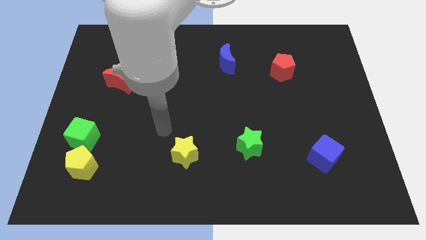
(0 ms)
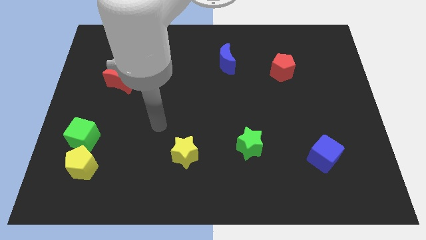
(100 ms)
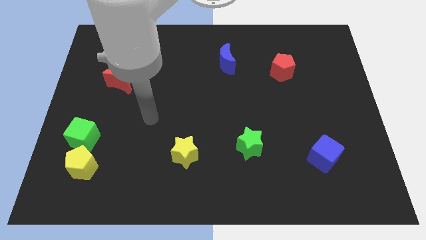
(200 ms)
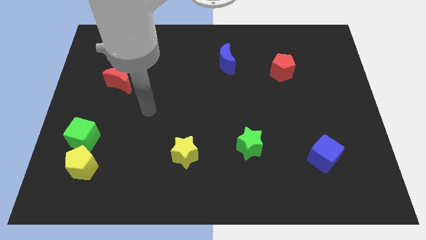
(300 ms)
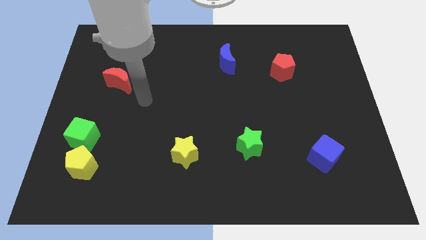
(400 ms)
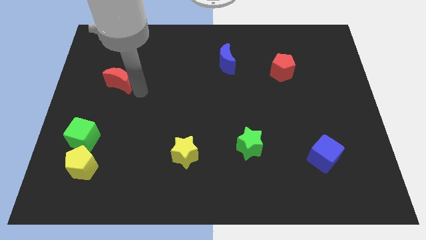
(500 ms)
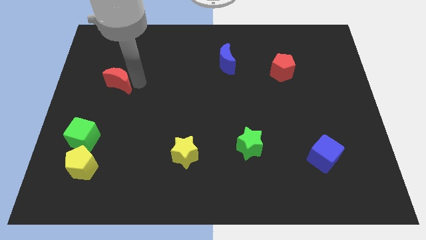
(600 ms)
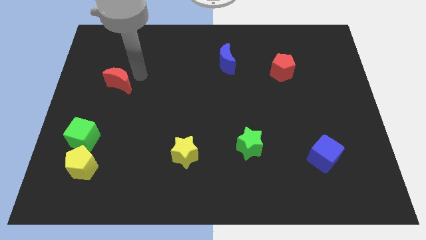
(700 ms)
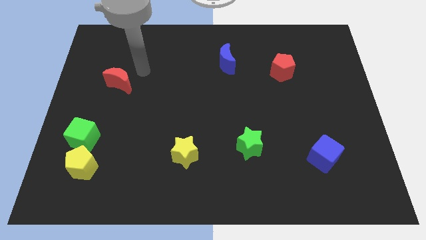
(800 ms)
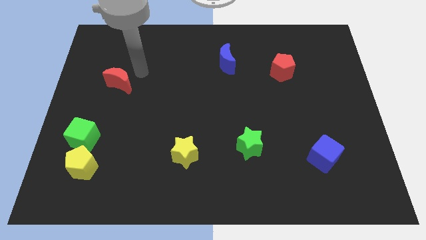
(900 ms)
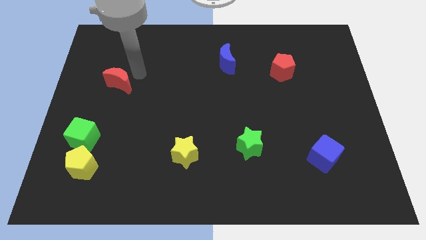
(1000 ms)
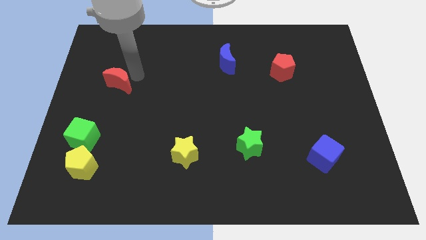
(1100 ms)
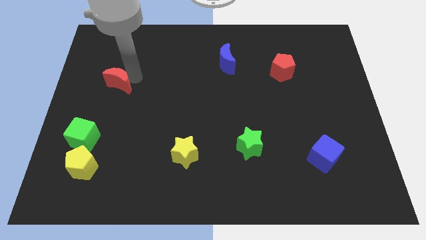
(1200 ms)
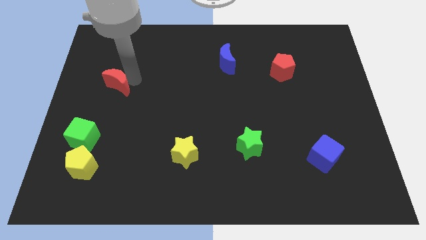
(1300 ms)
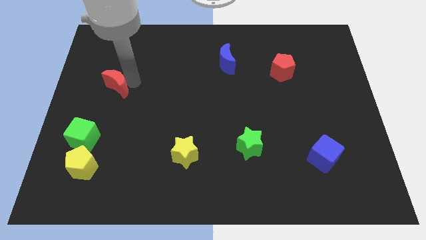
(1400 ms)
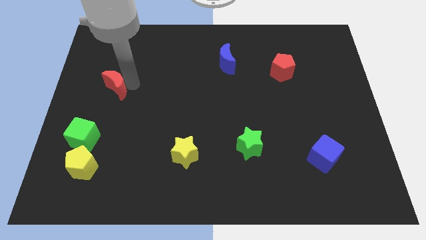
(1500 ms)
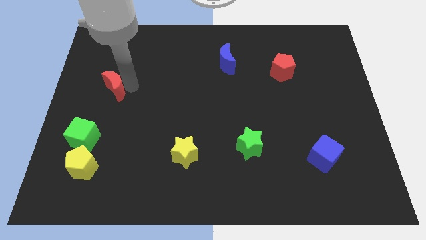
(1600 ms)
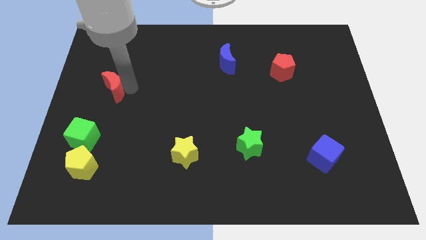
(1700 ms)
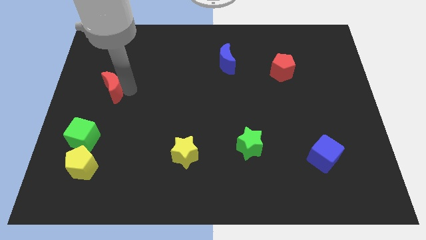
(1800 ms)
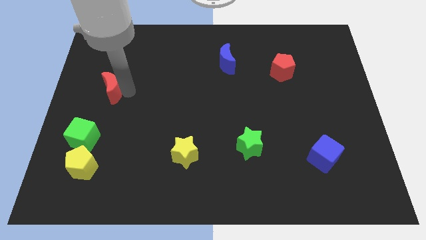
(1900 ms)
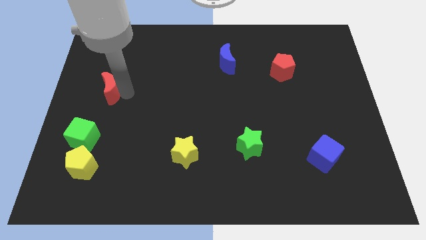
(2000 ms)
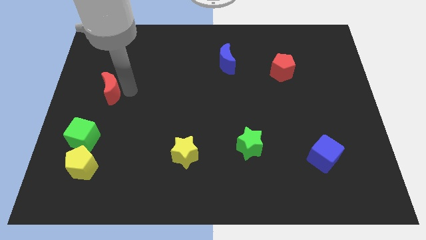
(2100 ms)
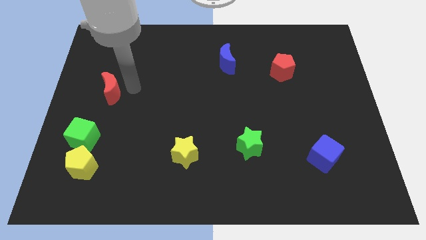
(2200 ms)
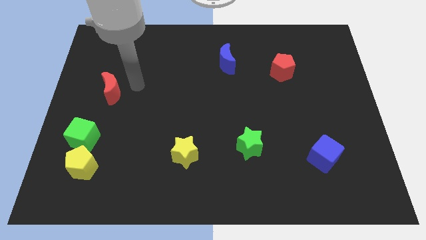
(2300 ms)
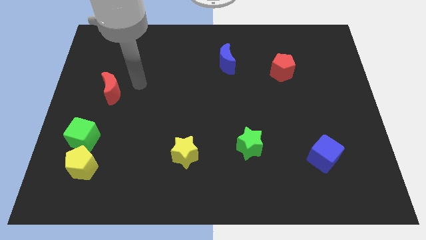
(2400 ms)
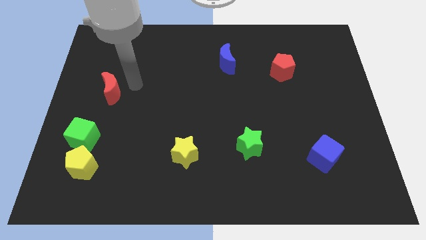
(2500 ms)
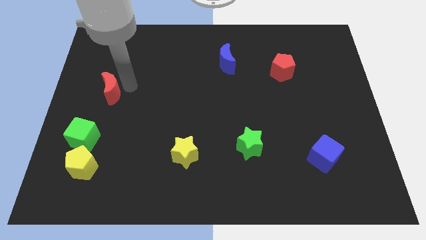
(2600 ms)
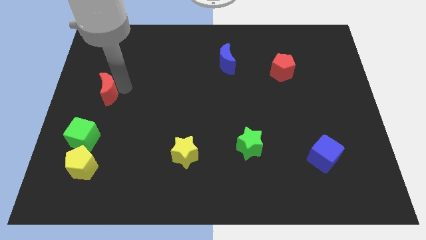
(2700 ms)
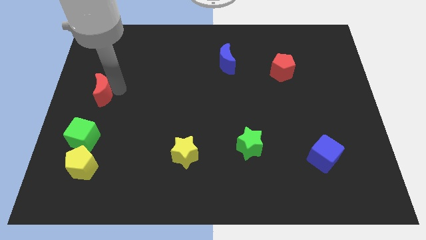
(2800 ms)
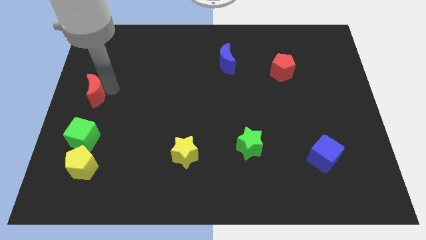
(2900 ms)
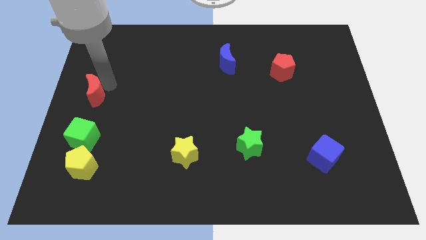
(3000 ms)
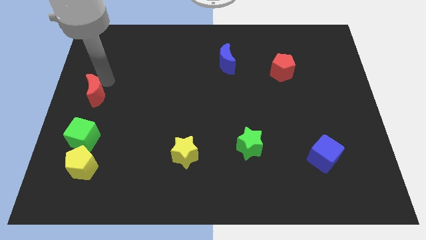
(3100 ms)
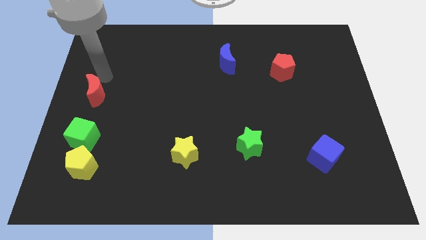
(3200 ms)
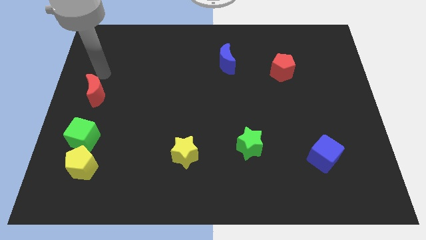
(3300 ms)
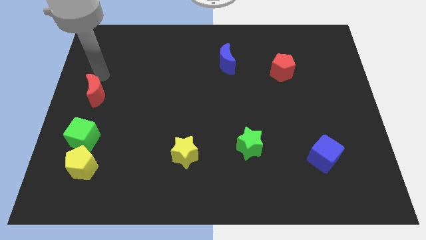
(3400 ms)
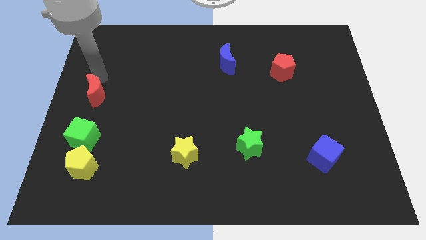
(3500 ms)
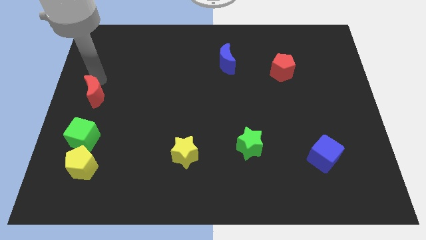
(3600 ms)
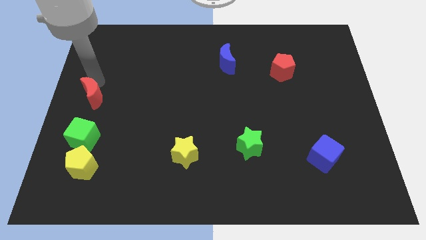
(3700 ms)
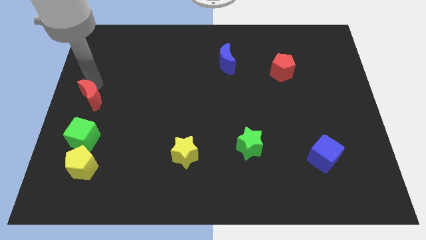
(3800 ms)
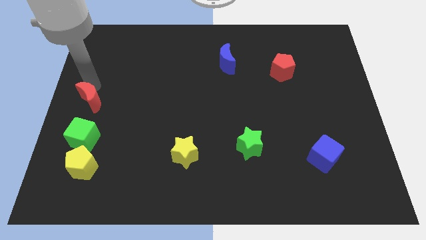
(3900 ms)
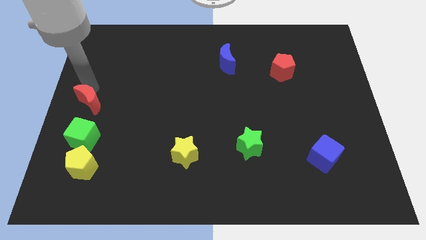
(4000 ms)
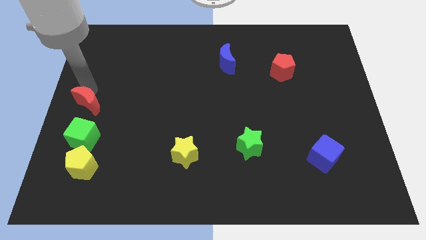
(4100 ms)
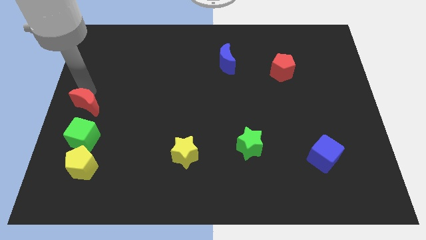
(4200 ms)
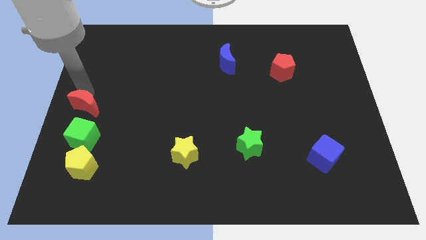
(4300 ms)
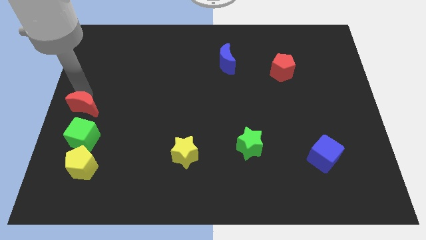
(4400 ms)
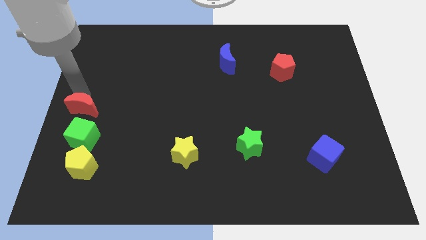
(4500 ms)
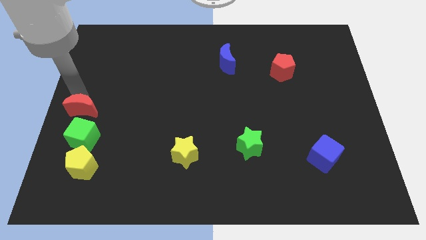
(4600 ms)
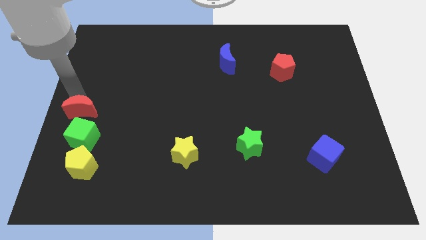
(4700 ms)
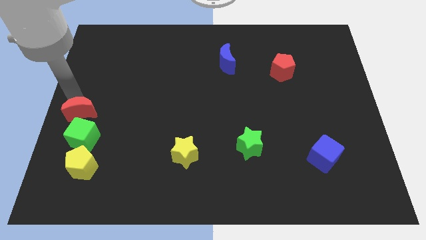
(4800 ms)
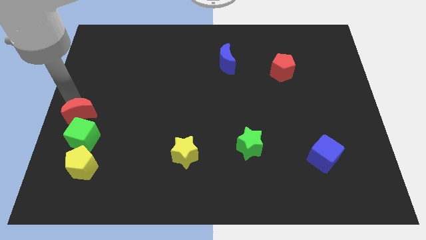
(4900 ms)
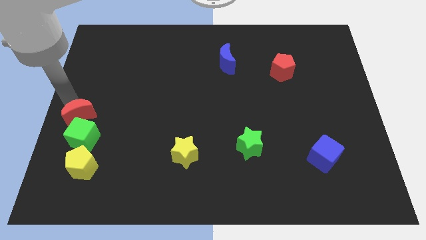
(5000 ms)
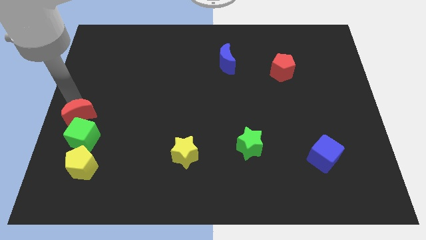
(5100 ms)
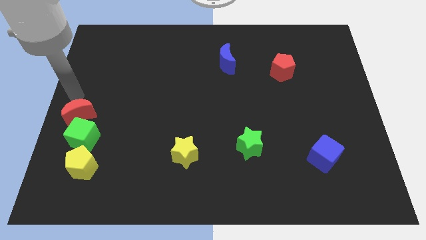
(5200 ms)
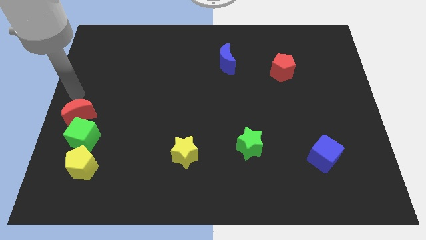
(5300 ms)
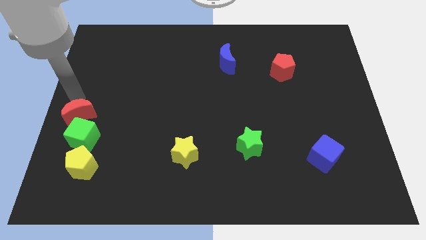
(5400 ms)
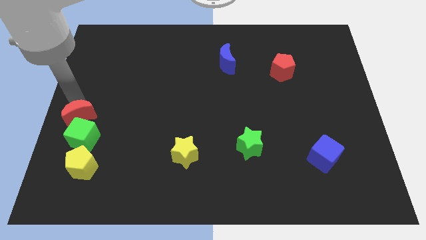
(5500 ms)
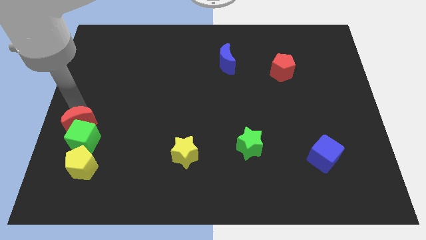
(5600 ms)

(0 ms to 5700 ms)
push the red moon next to the green cube

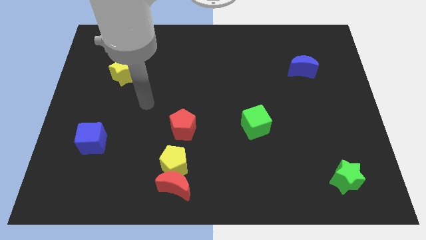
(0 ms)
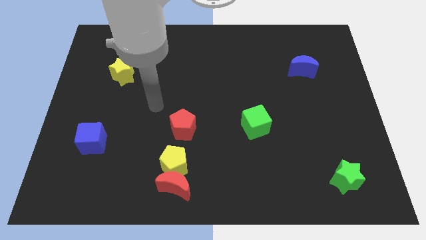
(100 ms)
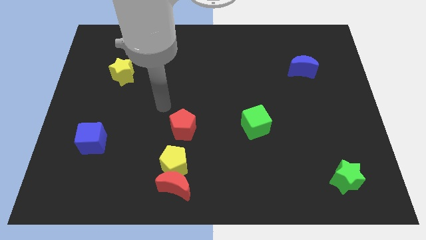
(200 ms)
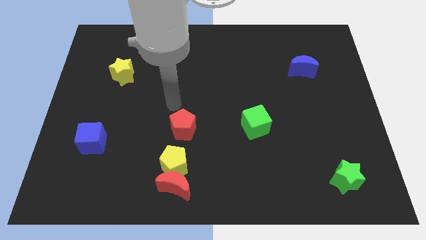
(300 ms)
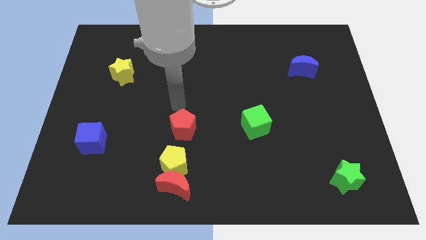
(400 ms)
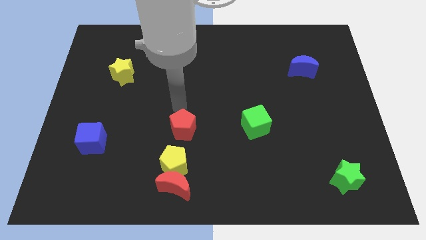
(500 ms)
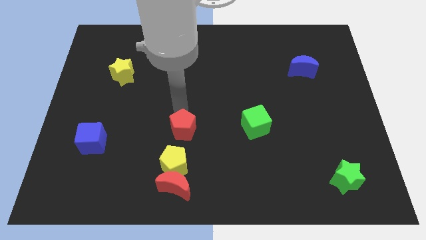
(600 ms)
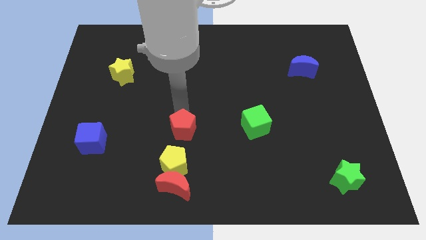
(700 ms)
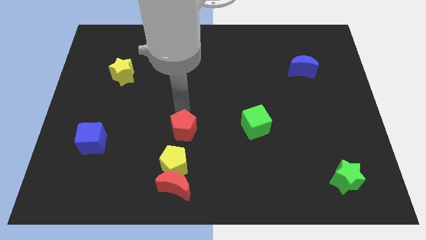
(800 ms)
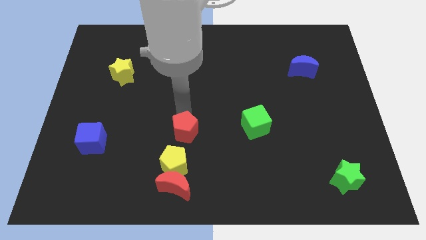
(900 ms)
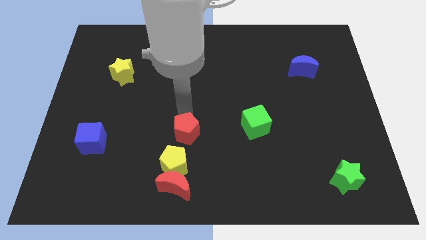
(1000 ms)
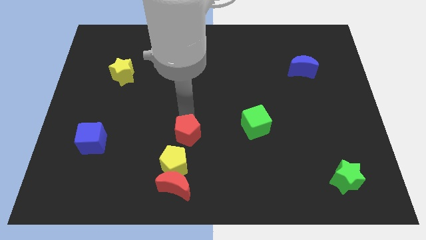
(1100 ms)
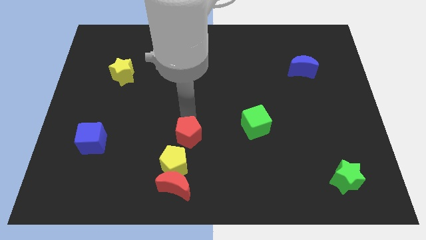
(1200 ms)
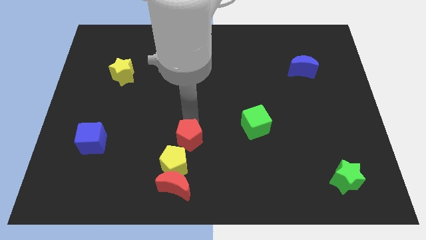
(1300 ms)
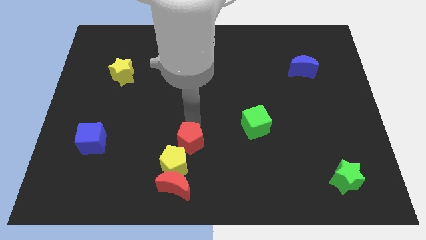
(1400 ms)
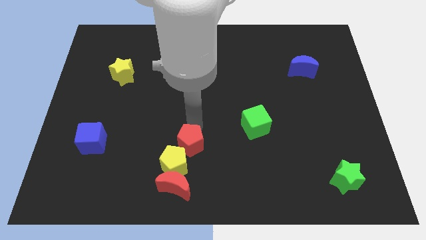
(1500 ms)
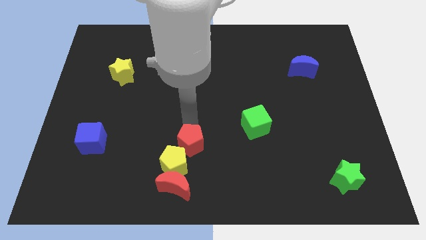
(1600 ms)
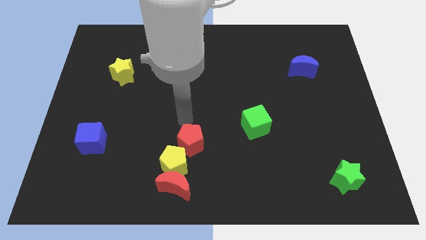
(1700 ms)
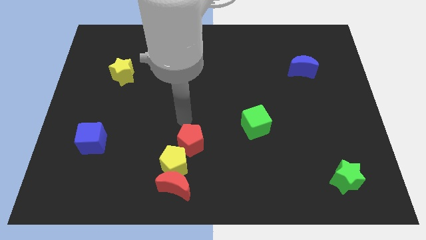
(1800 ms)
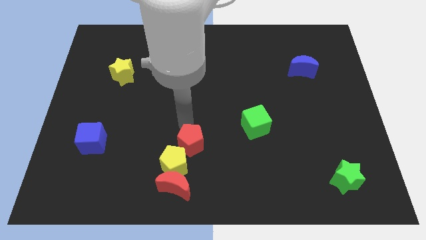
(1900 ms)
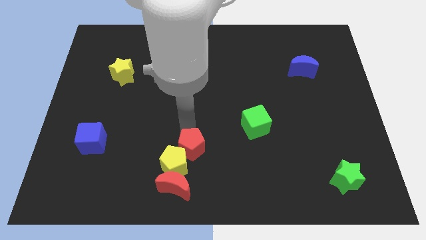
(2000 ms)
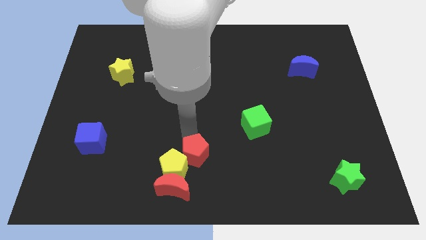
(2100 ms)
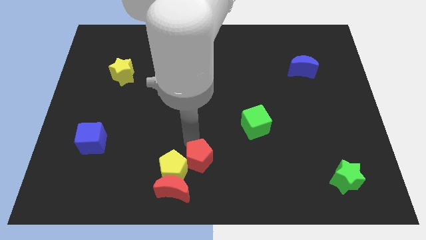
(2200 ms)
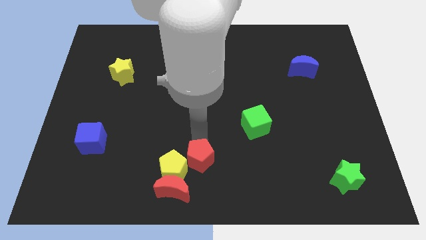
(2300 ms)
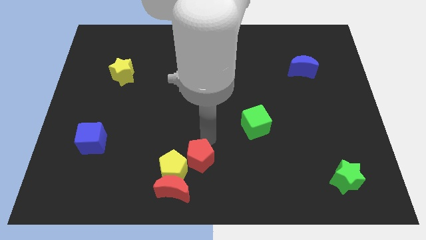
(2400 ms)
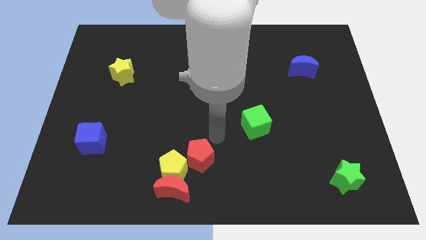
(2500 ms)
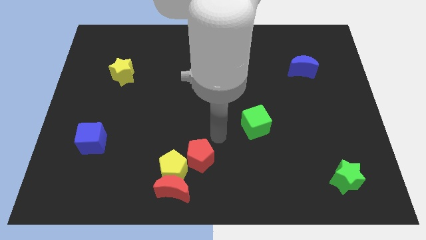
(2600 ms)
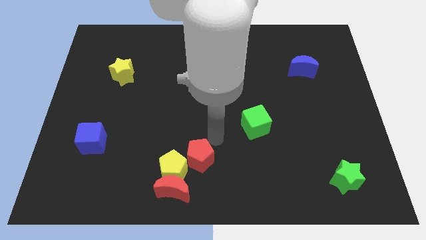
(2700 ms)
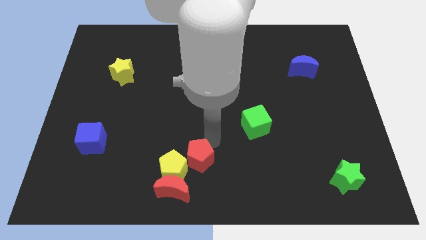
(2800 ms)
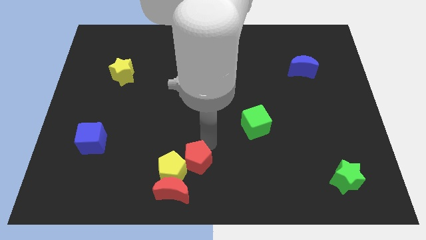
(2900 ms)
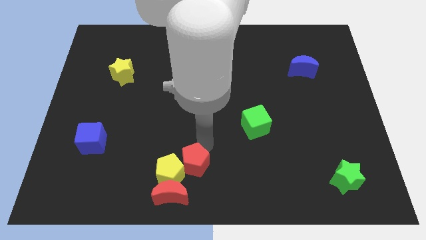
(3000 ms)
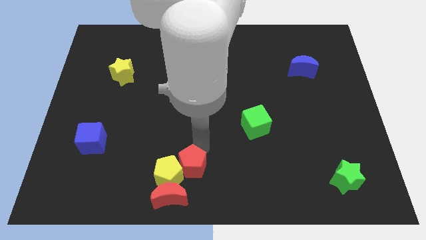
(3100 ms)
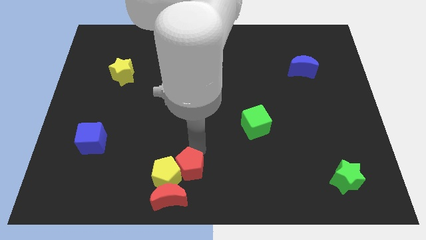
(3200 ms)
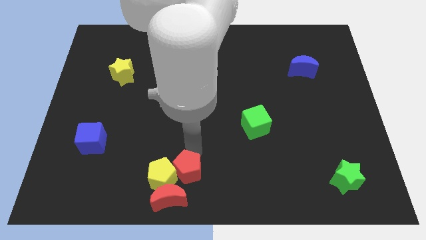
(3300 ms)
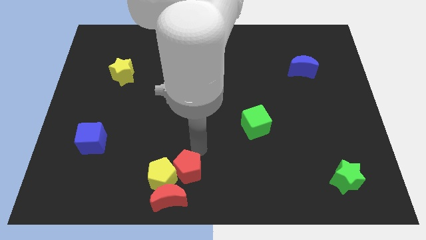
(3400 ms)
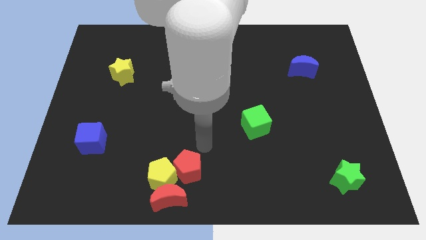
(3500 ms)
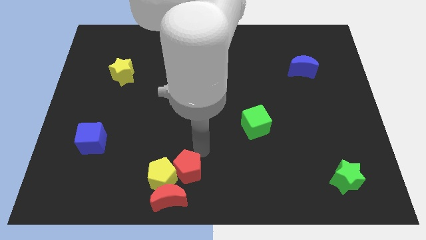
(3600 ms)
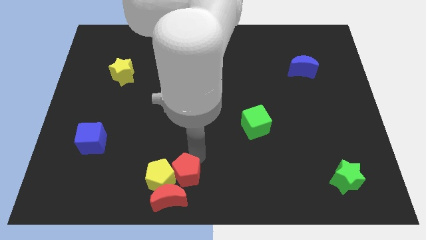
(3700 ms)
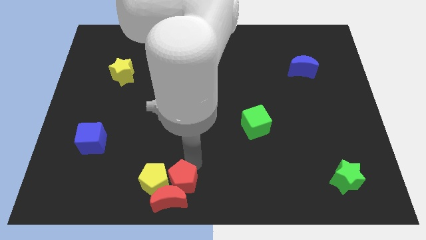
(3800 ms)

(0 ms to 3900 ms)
move the red pentagon next to the red moon
